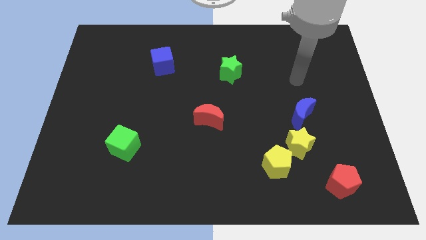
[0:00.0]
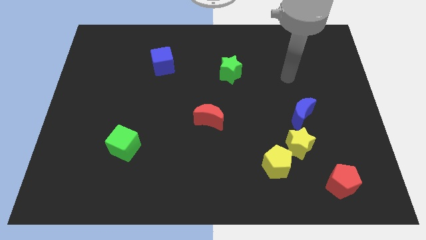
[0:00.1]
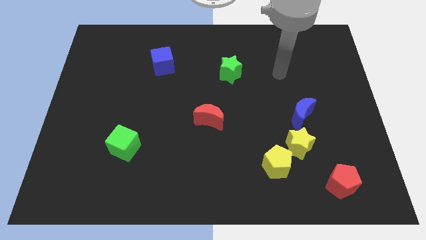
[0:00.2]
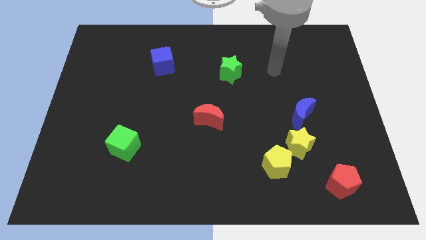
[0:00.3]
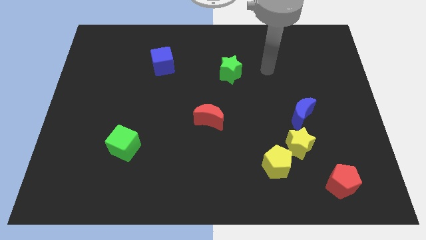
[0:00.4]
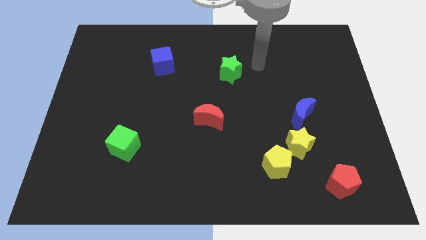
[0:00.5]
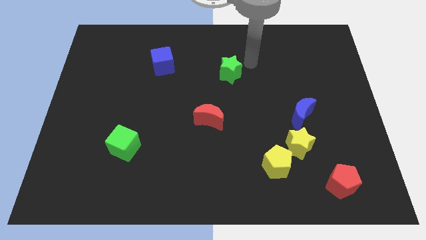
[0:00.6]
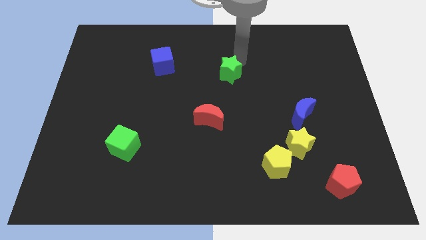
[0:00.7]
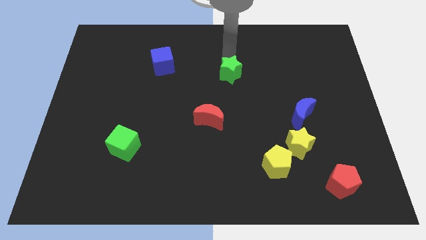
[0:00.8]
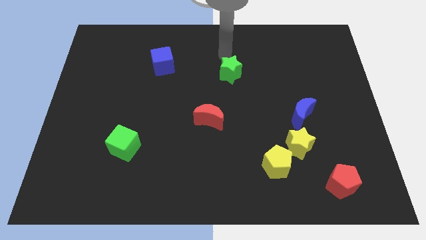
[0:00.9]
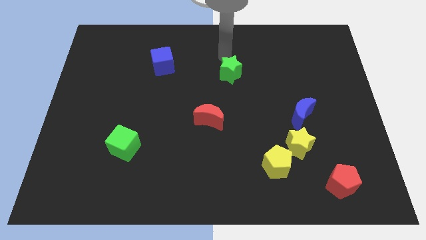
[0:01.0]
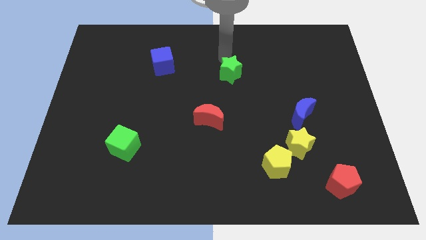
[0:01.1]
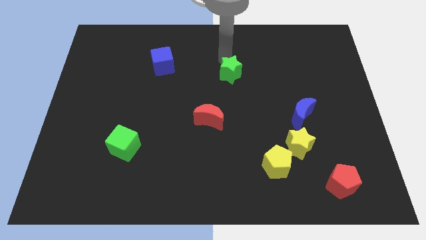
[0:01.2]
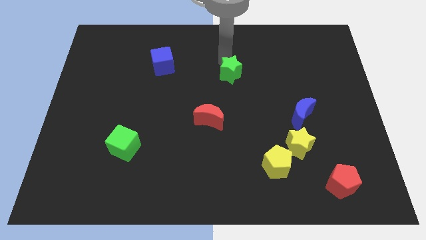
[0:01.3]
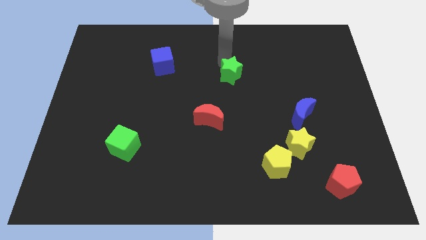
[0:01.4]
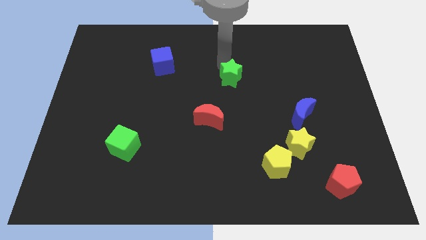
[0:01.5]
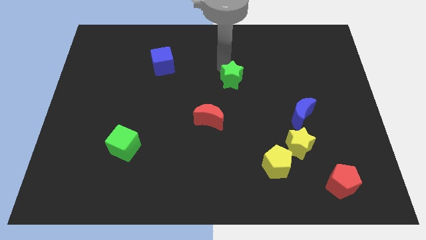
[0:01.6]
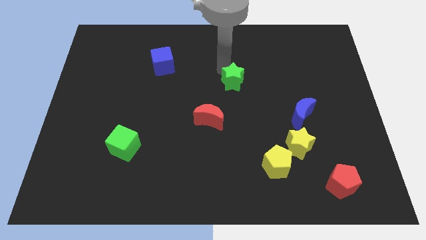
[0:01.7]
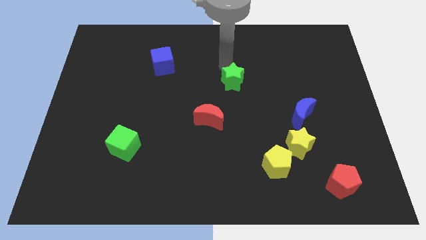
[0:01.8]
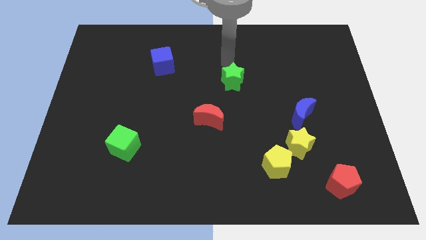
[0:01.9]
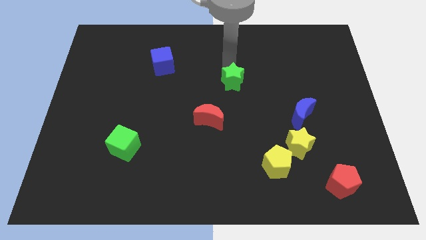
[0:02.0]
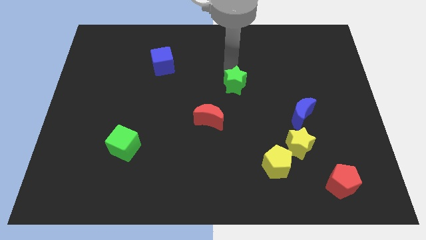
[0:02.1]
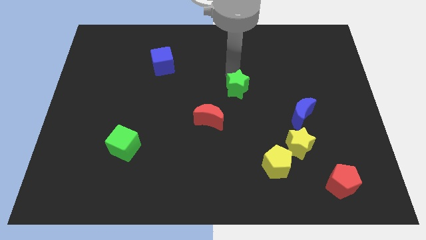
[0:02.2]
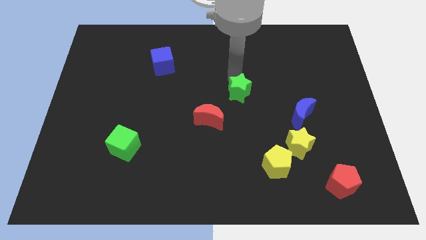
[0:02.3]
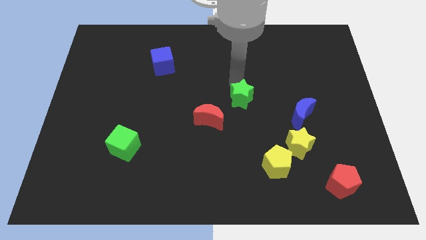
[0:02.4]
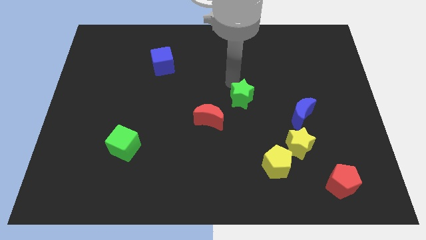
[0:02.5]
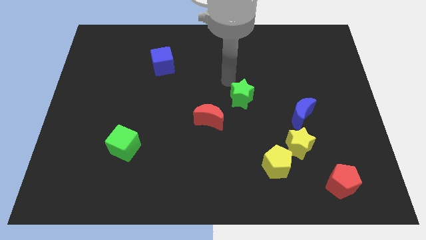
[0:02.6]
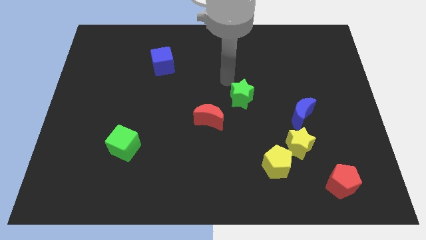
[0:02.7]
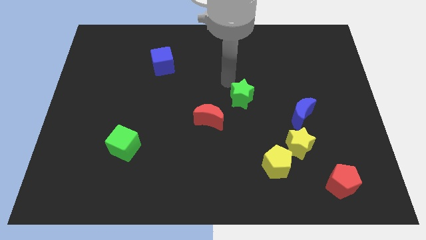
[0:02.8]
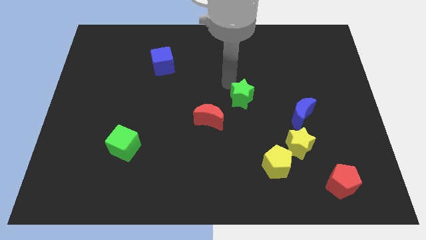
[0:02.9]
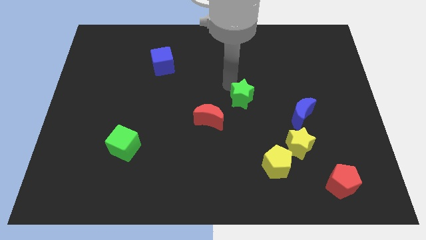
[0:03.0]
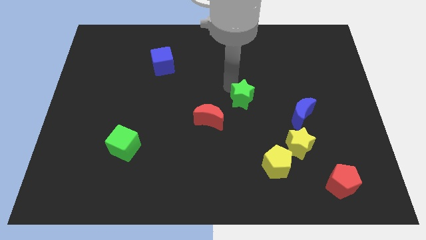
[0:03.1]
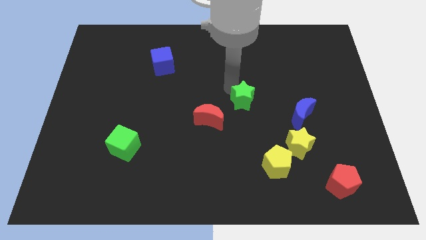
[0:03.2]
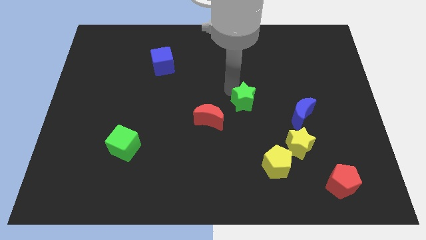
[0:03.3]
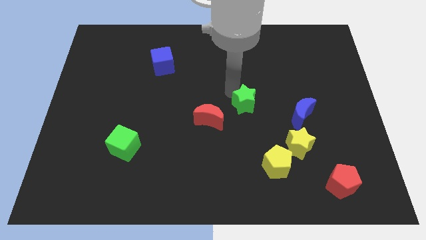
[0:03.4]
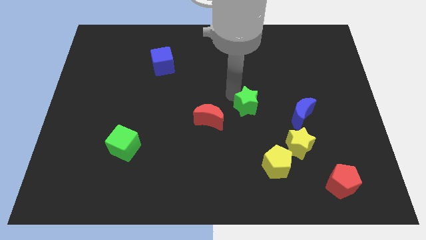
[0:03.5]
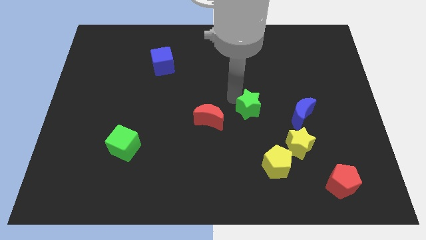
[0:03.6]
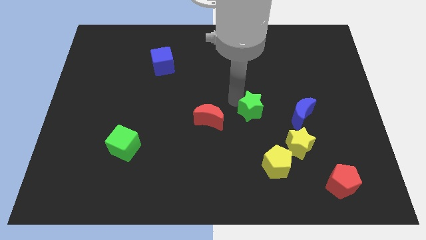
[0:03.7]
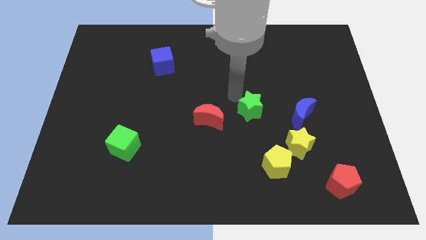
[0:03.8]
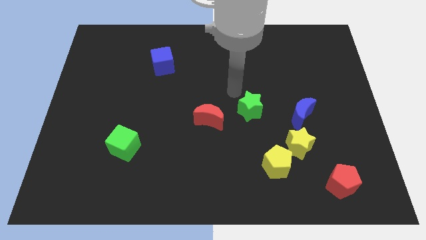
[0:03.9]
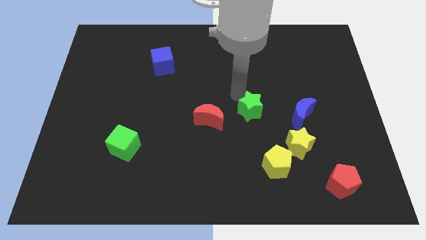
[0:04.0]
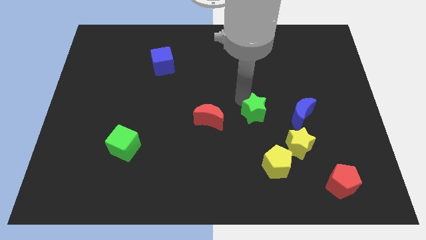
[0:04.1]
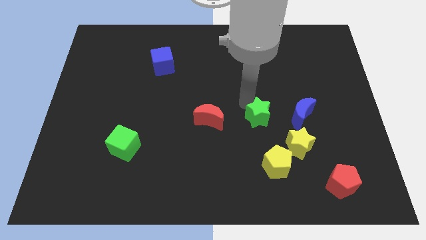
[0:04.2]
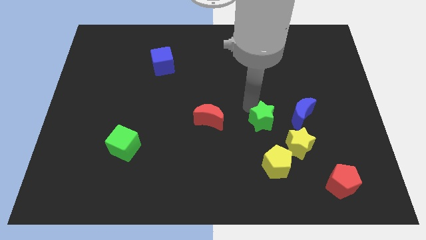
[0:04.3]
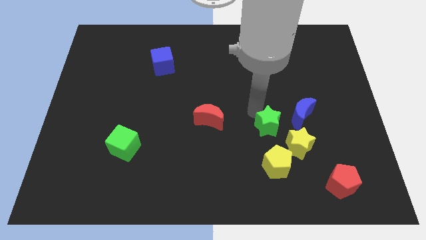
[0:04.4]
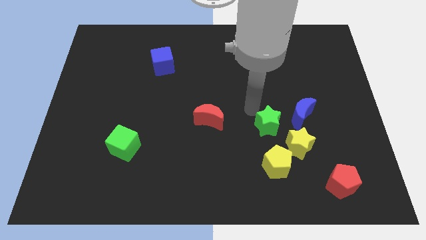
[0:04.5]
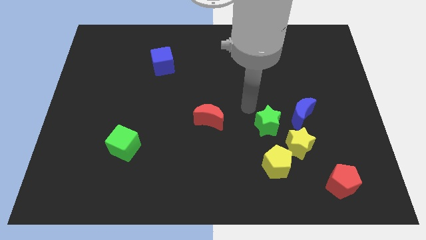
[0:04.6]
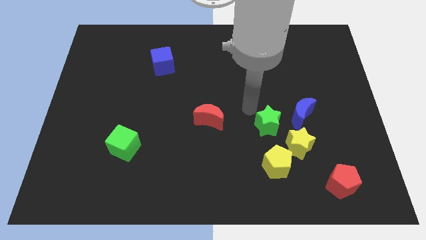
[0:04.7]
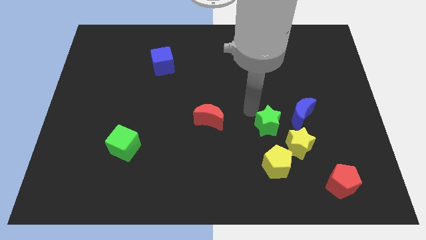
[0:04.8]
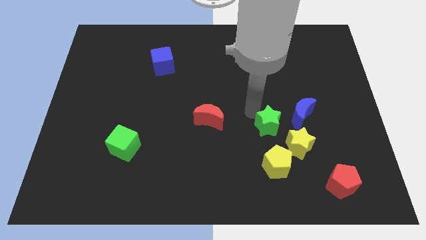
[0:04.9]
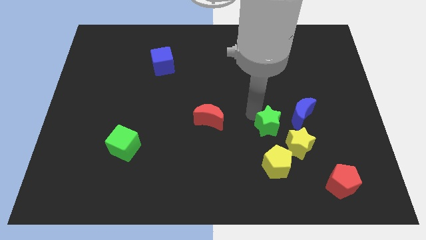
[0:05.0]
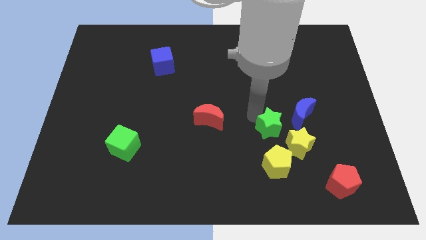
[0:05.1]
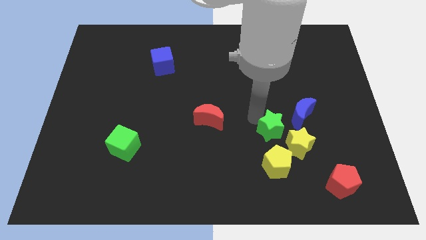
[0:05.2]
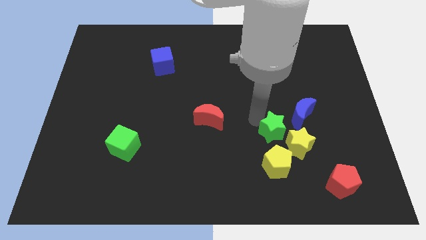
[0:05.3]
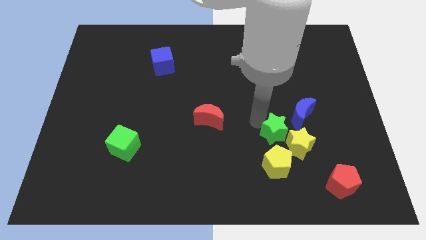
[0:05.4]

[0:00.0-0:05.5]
slide the green star next to the yellow star

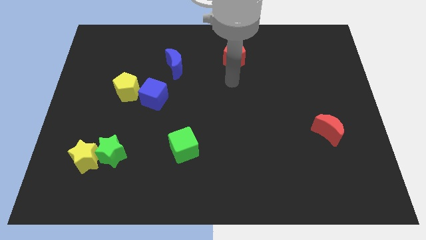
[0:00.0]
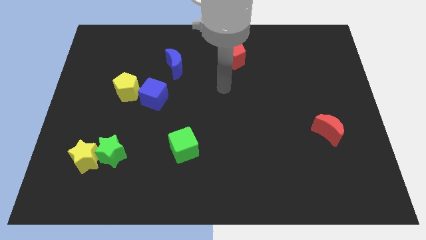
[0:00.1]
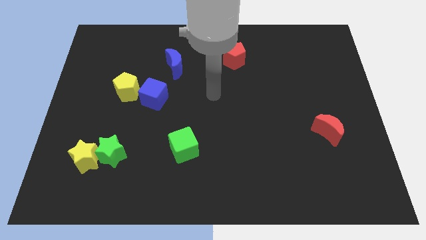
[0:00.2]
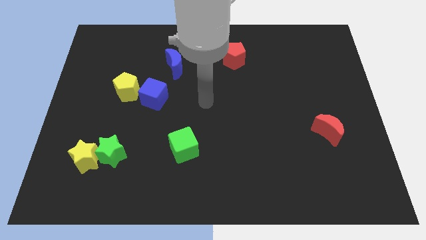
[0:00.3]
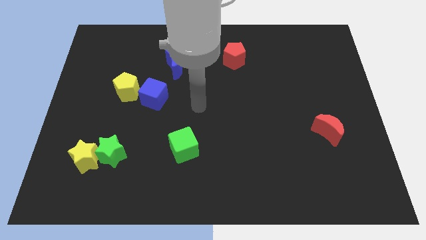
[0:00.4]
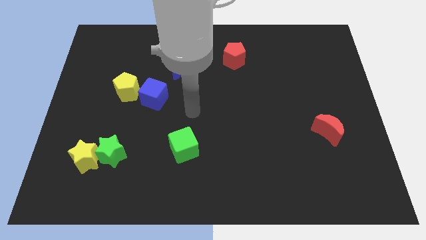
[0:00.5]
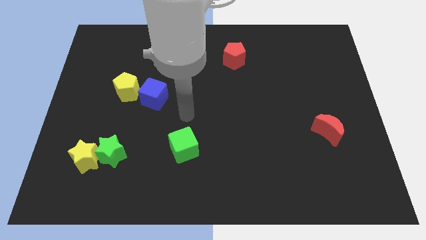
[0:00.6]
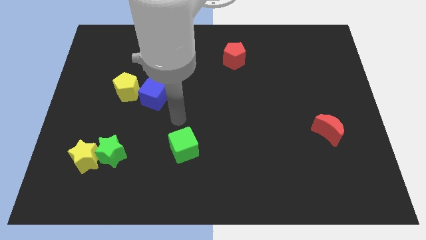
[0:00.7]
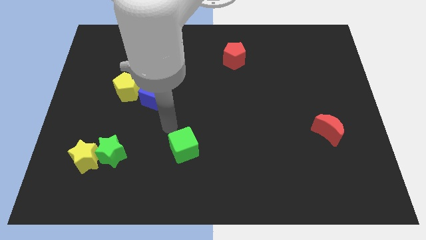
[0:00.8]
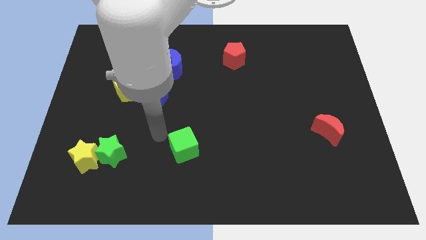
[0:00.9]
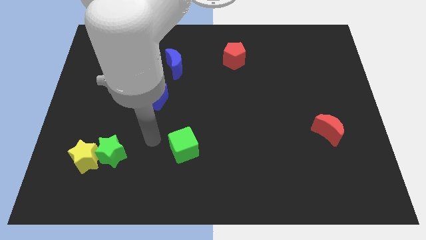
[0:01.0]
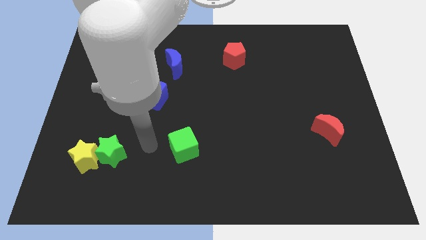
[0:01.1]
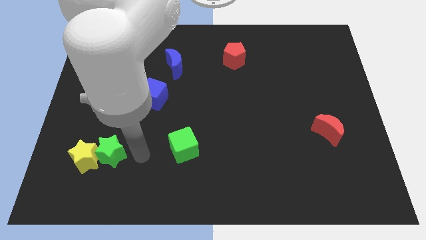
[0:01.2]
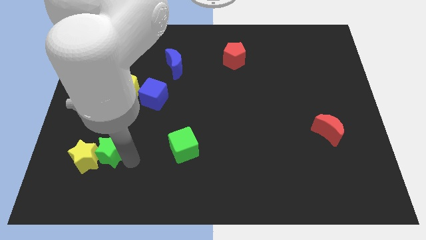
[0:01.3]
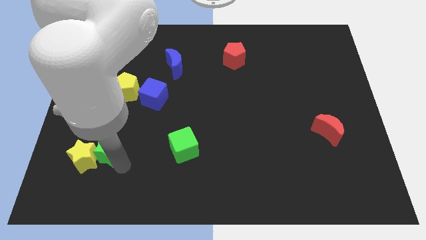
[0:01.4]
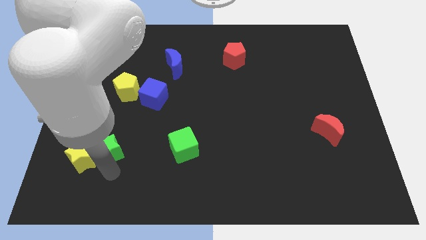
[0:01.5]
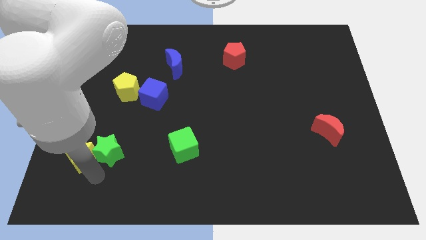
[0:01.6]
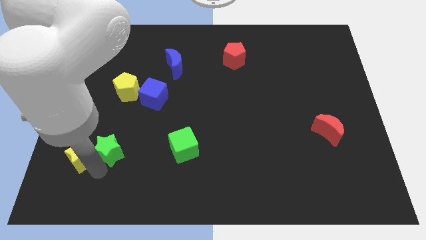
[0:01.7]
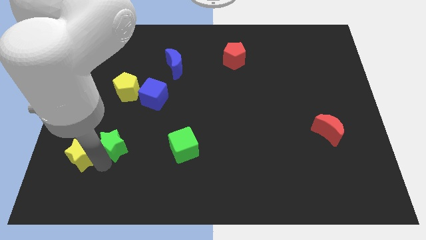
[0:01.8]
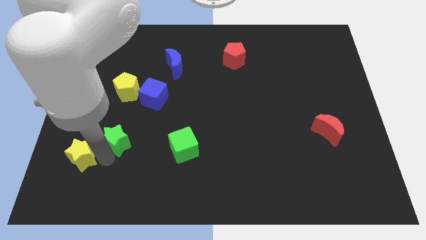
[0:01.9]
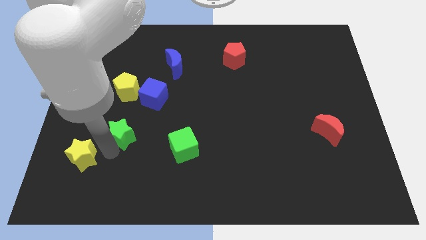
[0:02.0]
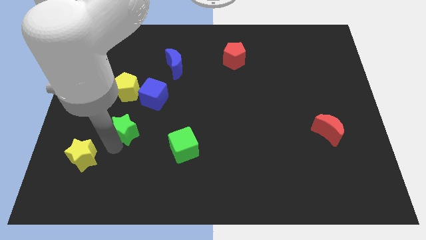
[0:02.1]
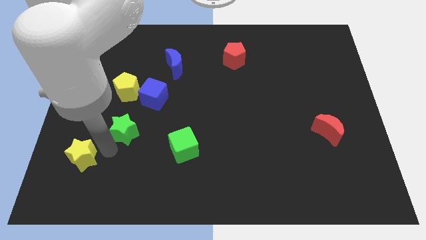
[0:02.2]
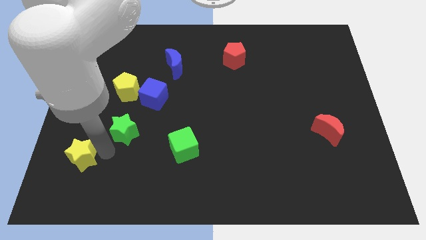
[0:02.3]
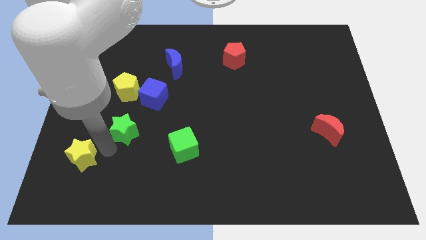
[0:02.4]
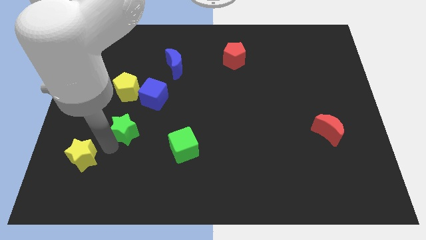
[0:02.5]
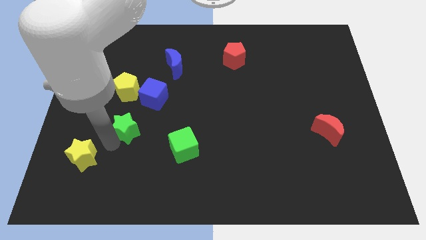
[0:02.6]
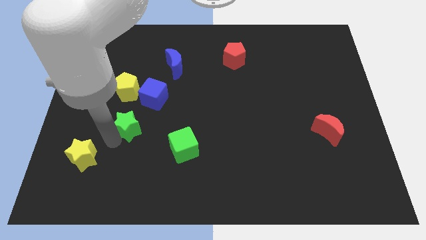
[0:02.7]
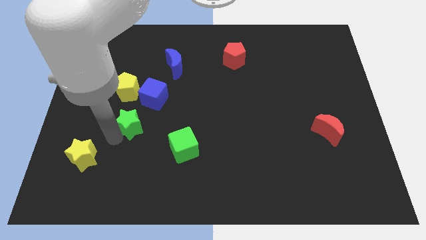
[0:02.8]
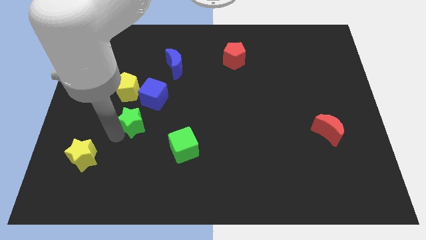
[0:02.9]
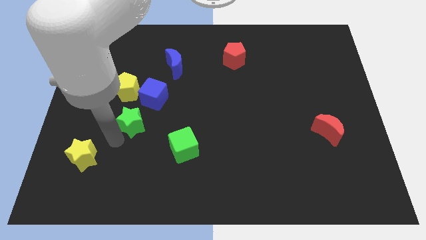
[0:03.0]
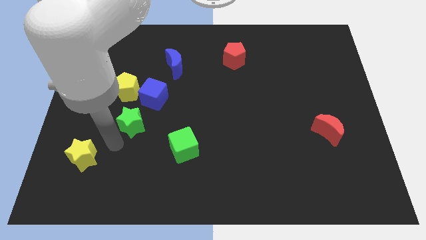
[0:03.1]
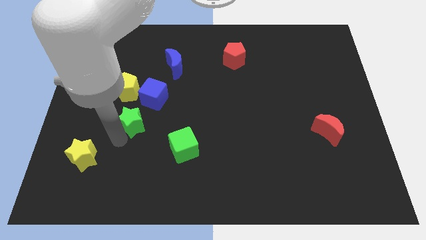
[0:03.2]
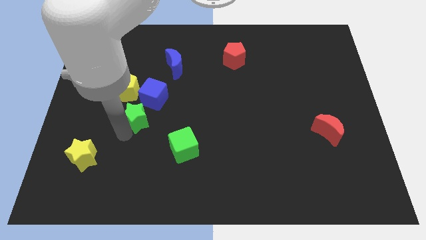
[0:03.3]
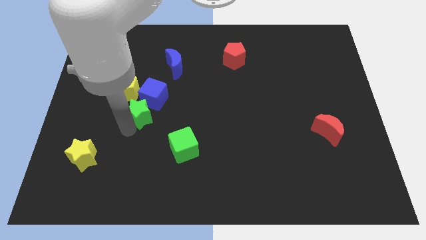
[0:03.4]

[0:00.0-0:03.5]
slide the green star to the blue cube
